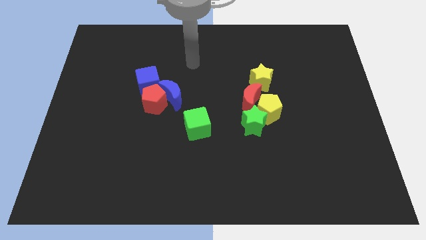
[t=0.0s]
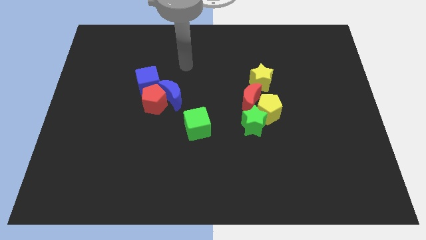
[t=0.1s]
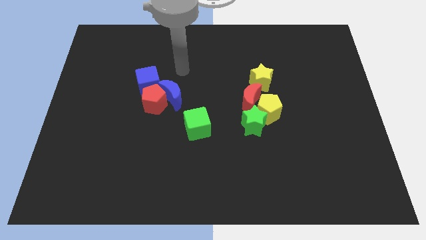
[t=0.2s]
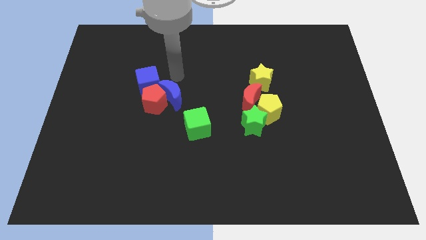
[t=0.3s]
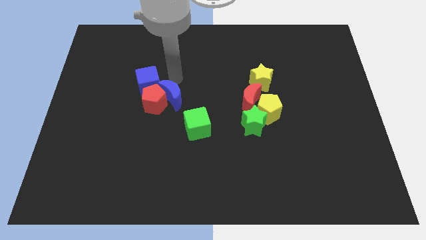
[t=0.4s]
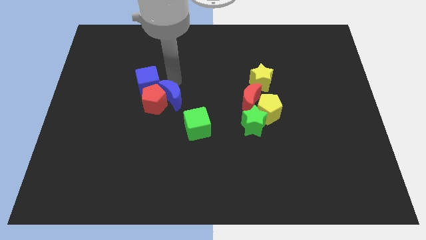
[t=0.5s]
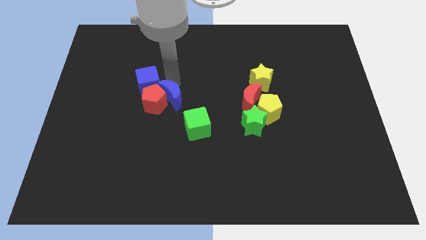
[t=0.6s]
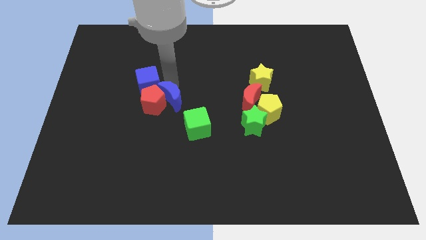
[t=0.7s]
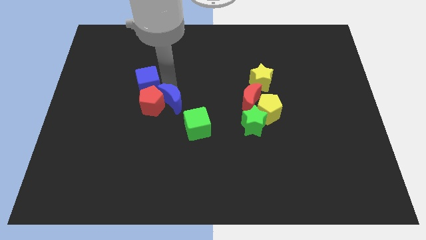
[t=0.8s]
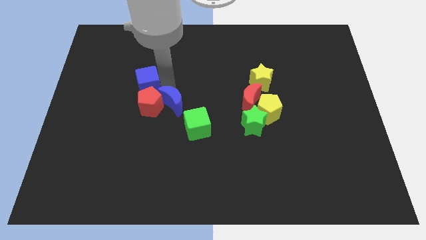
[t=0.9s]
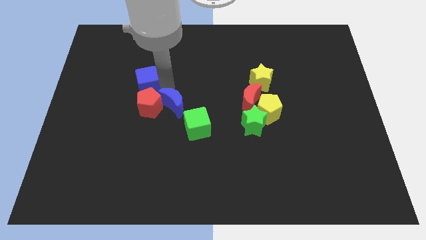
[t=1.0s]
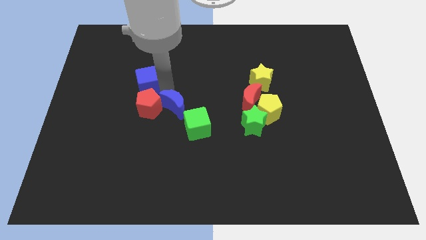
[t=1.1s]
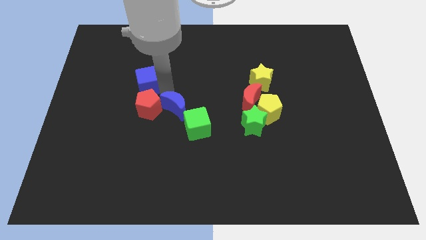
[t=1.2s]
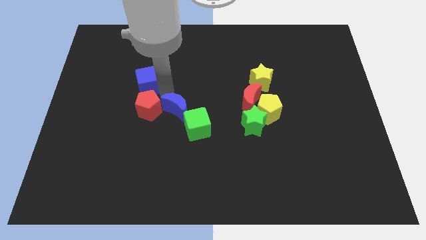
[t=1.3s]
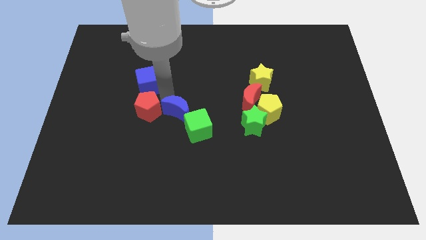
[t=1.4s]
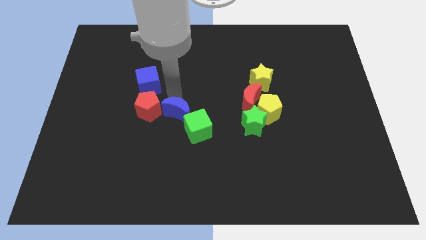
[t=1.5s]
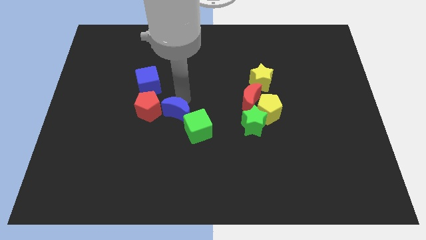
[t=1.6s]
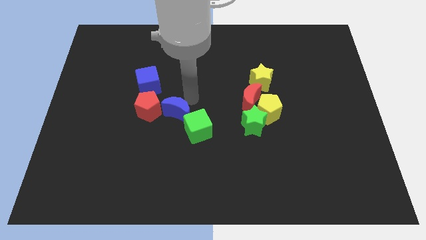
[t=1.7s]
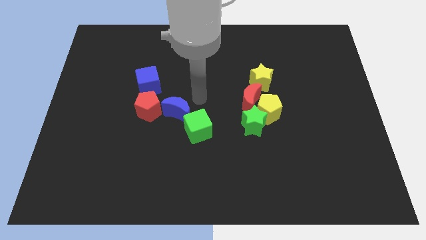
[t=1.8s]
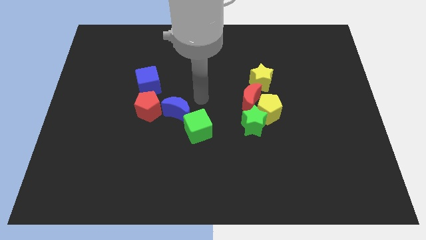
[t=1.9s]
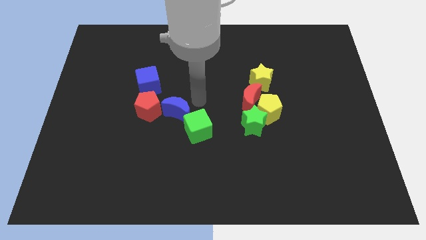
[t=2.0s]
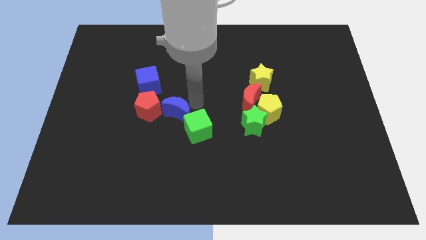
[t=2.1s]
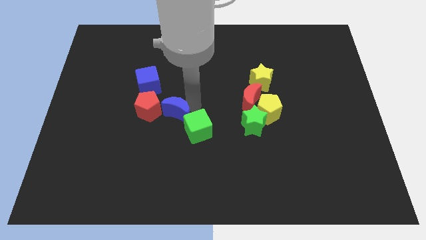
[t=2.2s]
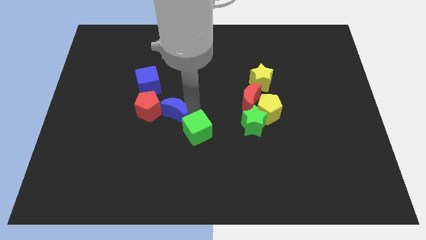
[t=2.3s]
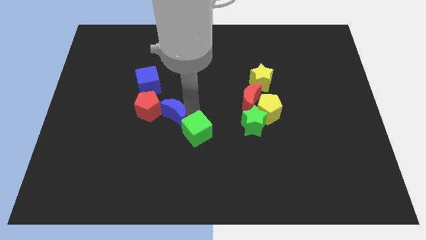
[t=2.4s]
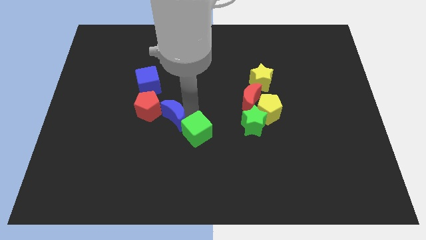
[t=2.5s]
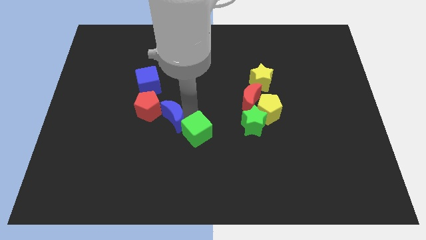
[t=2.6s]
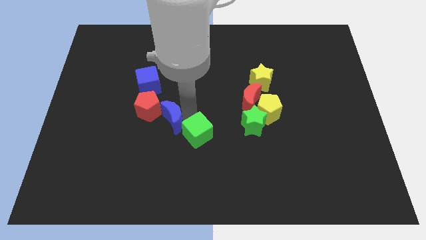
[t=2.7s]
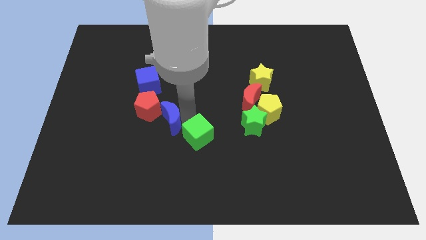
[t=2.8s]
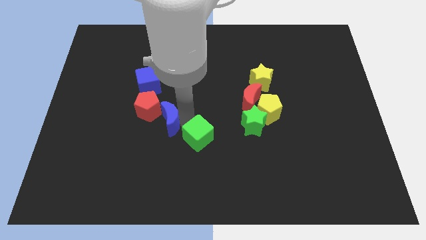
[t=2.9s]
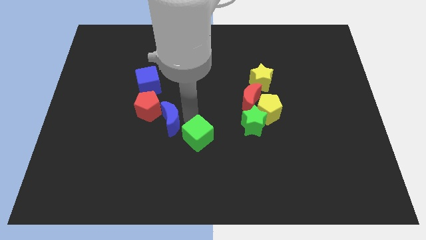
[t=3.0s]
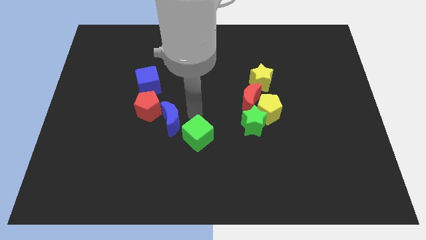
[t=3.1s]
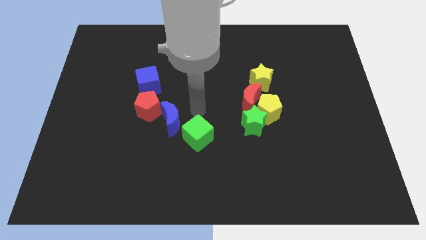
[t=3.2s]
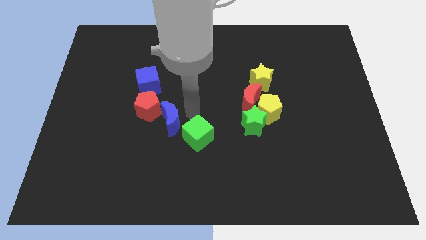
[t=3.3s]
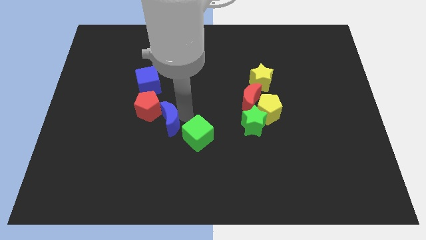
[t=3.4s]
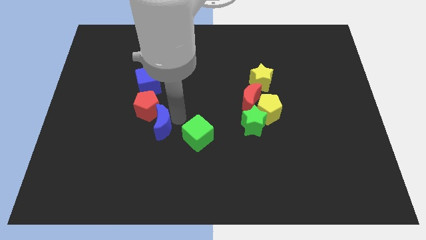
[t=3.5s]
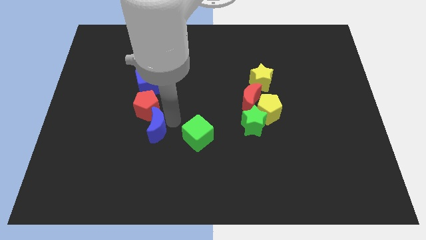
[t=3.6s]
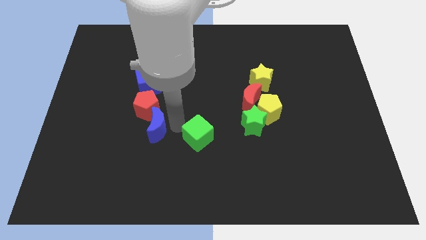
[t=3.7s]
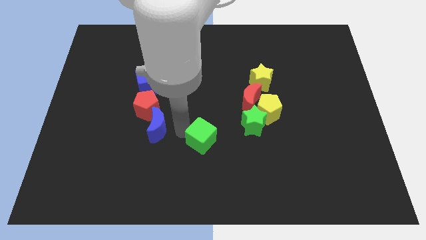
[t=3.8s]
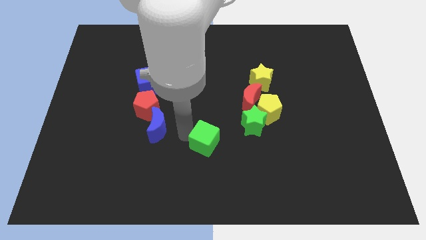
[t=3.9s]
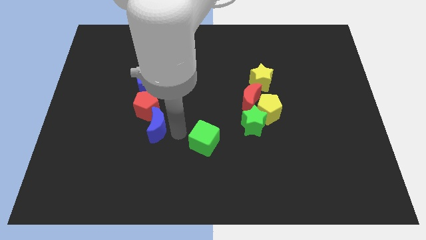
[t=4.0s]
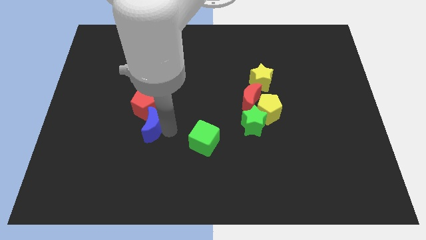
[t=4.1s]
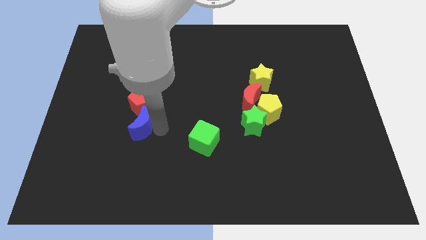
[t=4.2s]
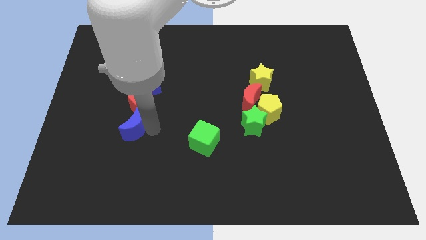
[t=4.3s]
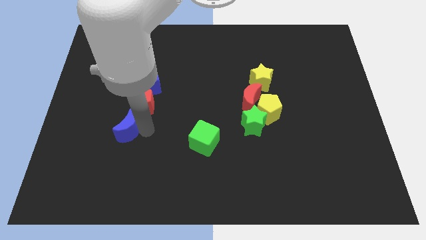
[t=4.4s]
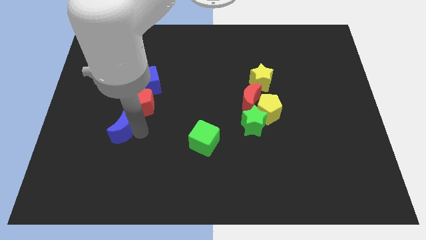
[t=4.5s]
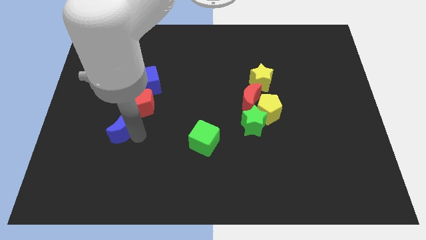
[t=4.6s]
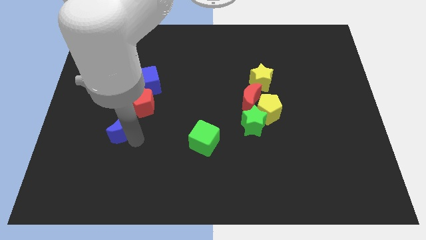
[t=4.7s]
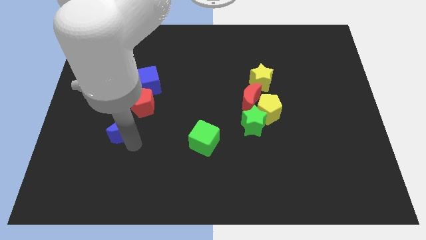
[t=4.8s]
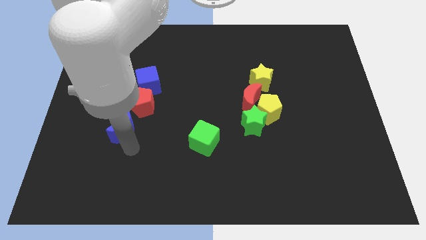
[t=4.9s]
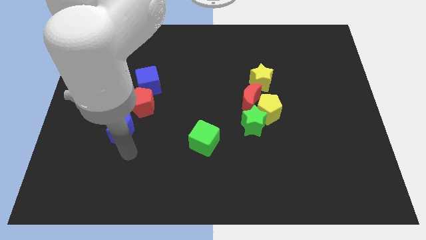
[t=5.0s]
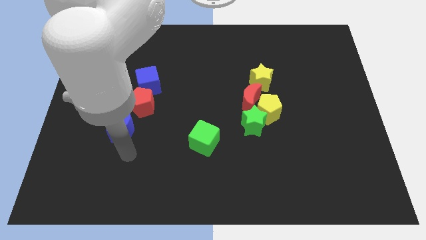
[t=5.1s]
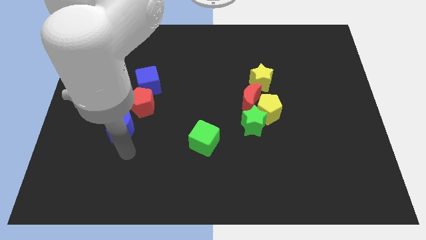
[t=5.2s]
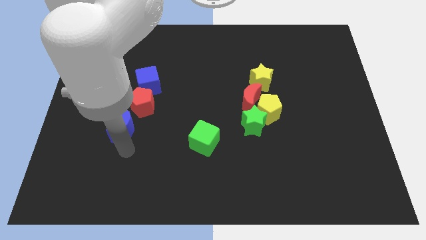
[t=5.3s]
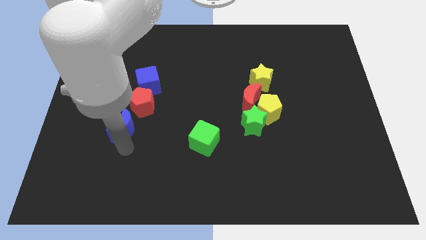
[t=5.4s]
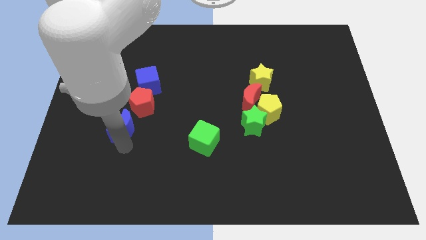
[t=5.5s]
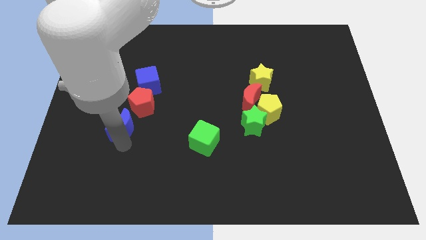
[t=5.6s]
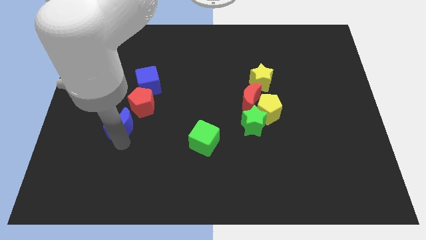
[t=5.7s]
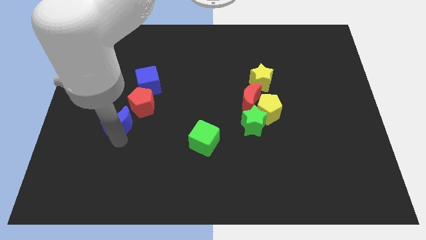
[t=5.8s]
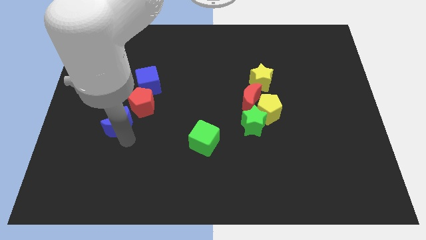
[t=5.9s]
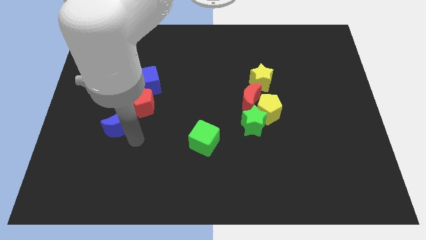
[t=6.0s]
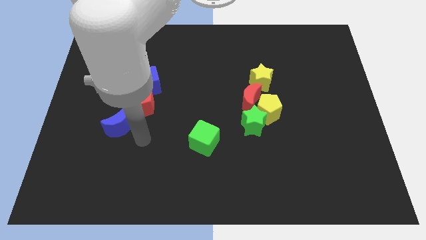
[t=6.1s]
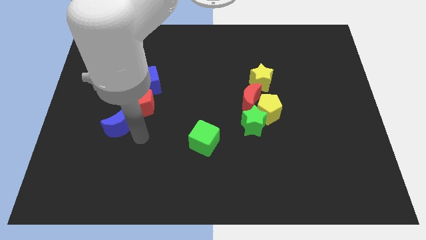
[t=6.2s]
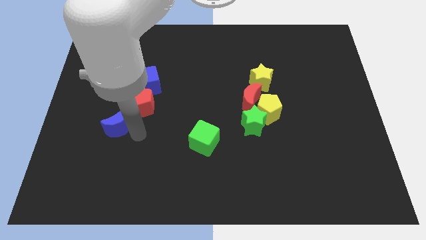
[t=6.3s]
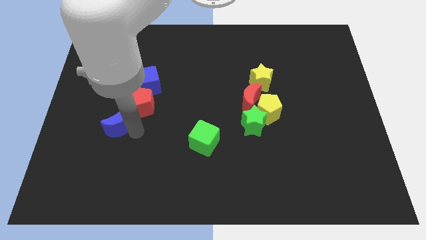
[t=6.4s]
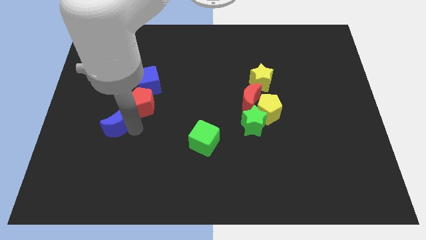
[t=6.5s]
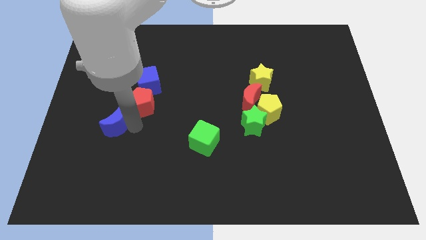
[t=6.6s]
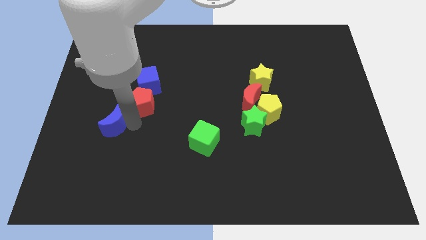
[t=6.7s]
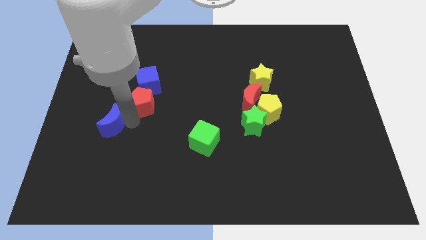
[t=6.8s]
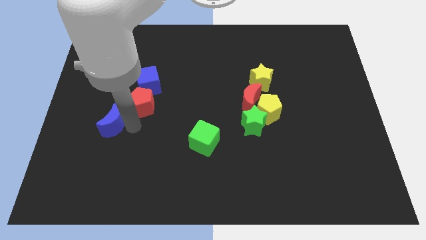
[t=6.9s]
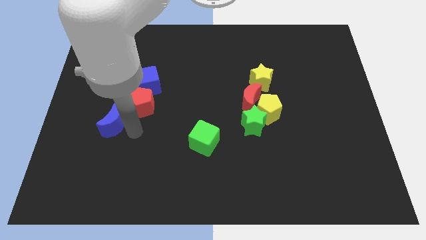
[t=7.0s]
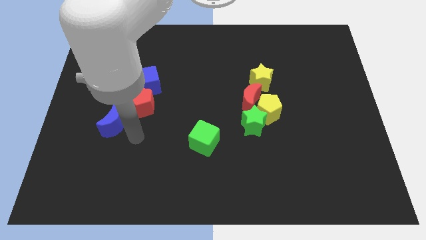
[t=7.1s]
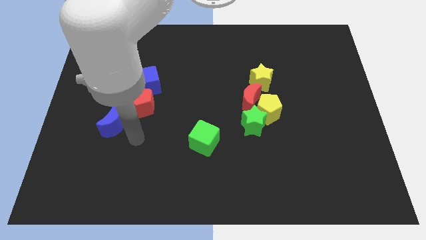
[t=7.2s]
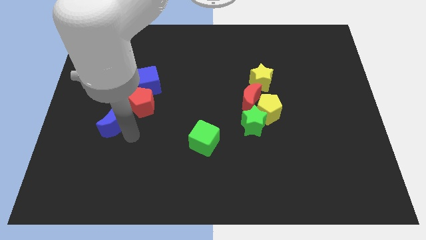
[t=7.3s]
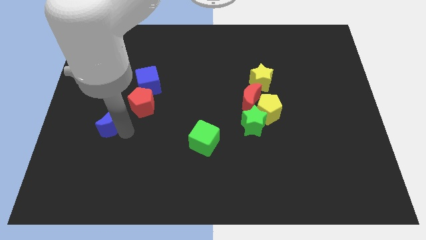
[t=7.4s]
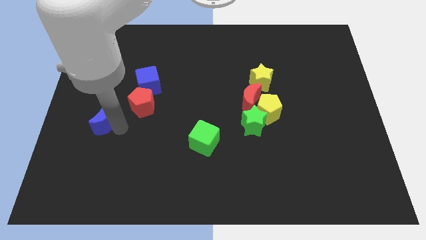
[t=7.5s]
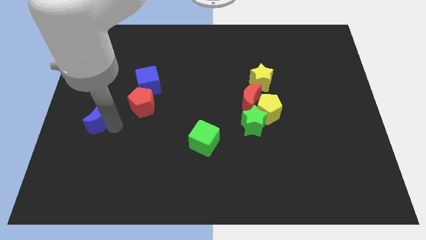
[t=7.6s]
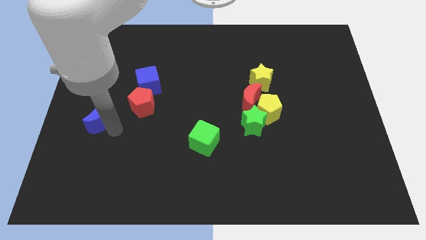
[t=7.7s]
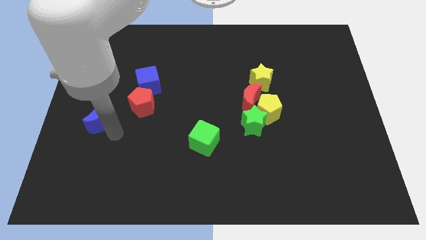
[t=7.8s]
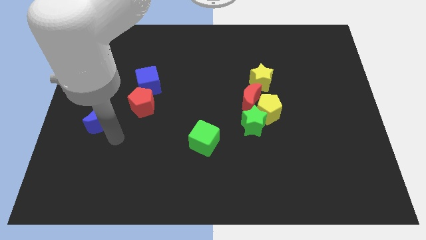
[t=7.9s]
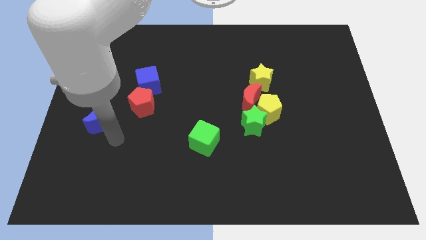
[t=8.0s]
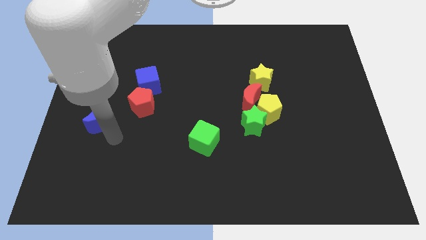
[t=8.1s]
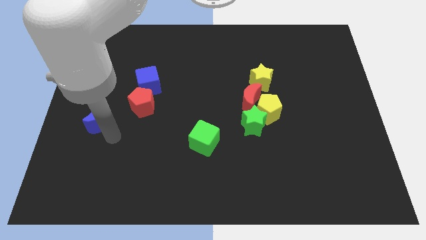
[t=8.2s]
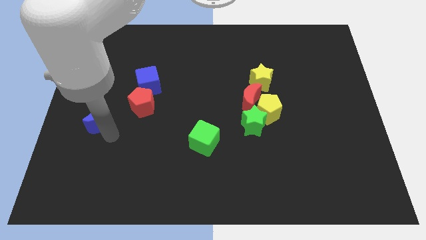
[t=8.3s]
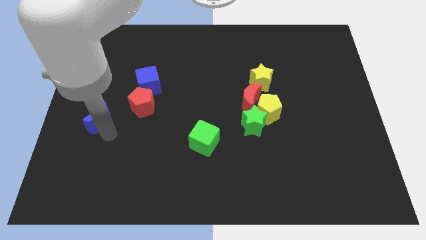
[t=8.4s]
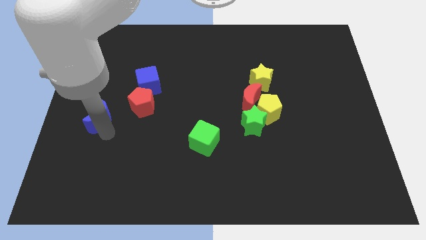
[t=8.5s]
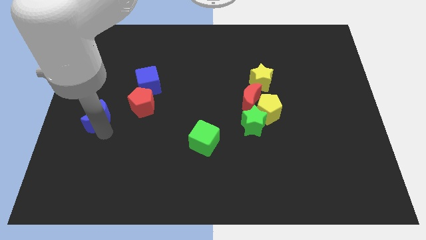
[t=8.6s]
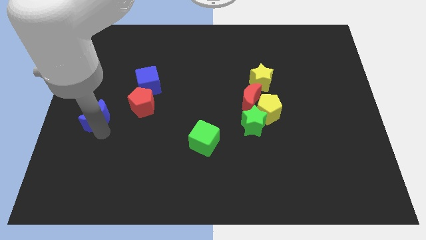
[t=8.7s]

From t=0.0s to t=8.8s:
move the blue moon to the center left
